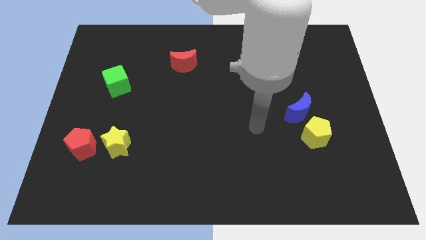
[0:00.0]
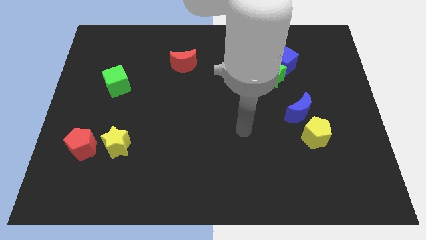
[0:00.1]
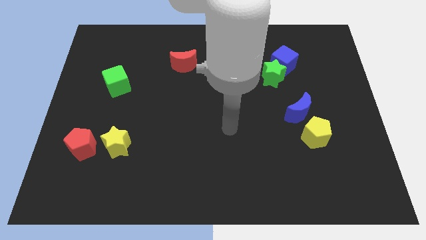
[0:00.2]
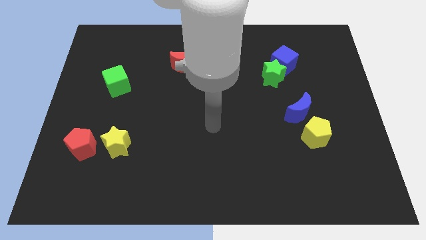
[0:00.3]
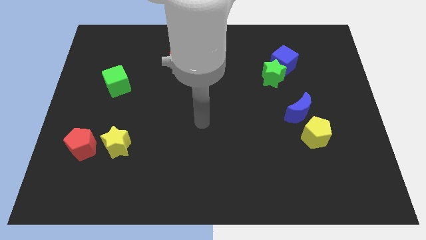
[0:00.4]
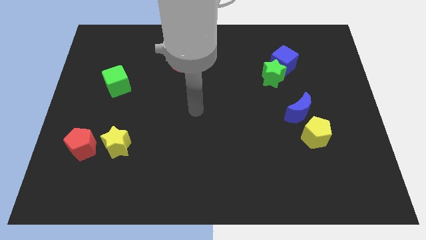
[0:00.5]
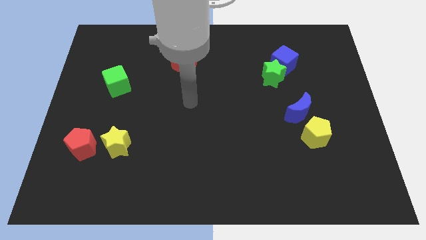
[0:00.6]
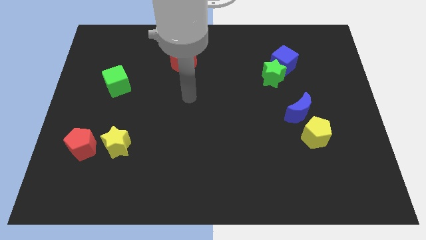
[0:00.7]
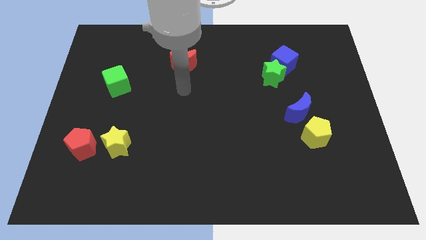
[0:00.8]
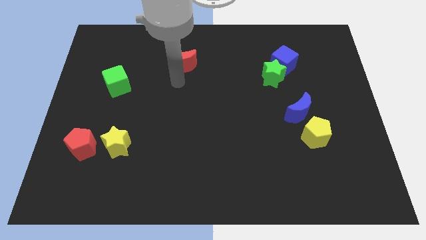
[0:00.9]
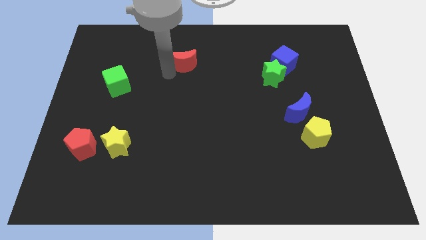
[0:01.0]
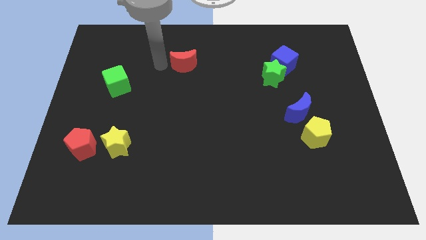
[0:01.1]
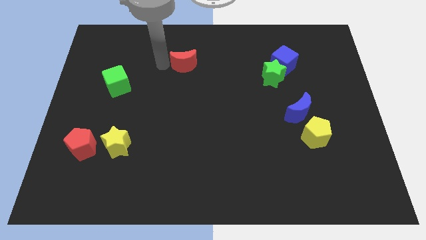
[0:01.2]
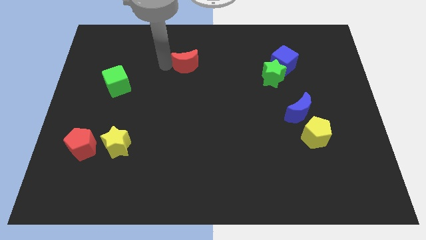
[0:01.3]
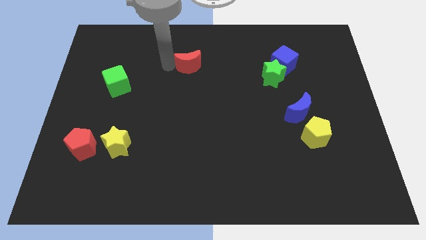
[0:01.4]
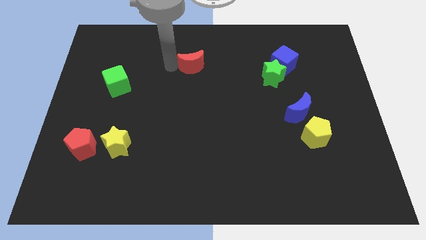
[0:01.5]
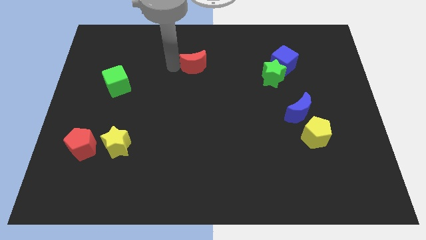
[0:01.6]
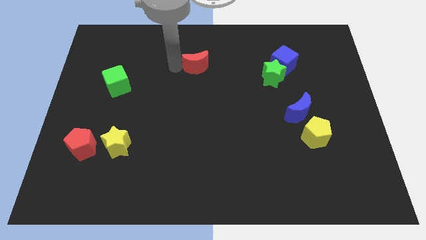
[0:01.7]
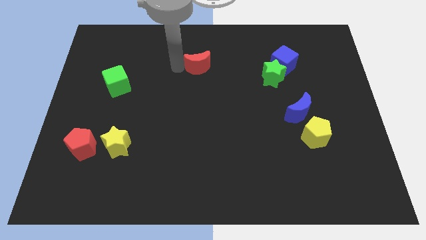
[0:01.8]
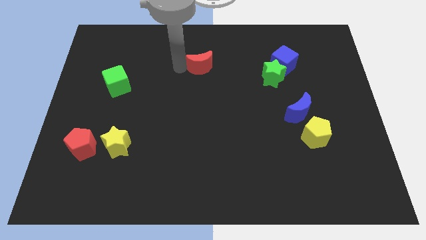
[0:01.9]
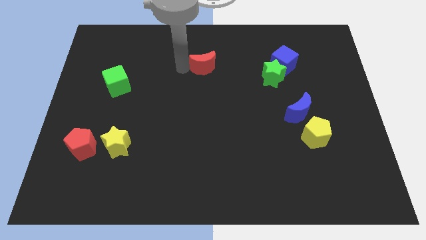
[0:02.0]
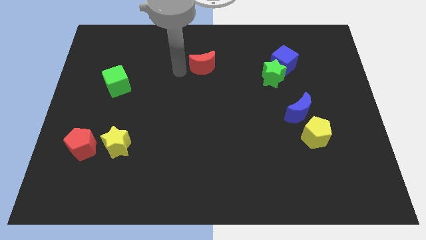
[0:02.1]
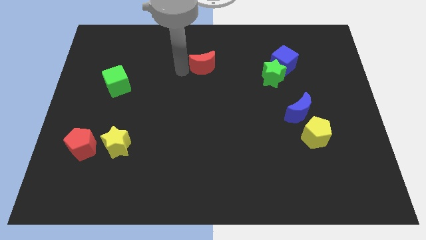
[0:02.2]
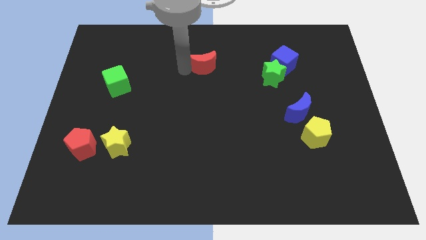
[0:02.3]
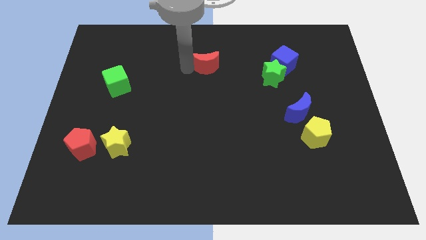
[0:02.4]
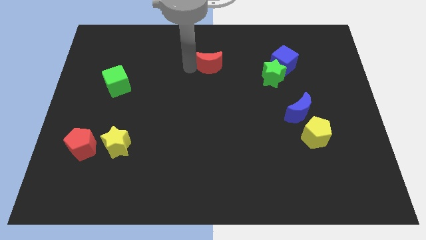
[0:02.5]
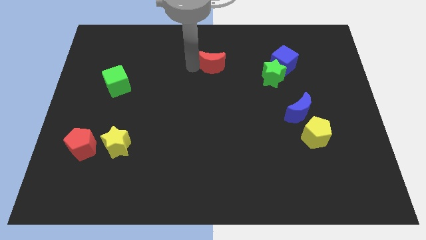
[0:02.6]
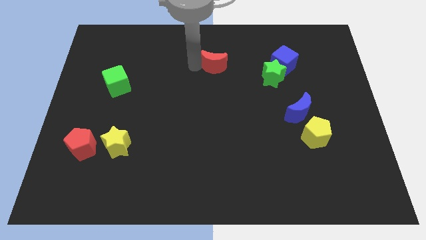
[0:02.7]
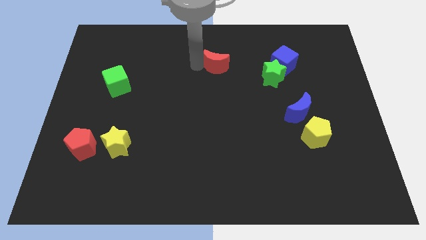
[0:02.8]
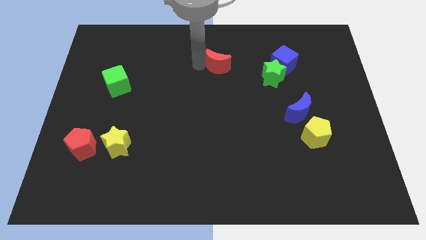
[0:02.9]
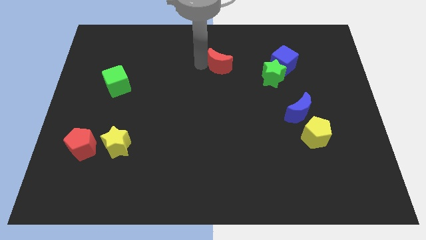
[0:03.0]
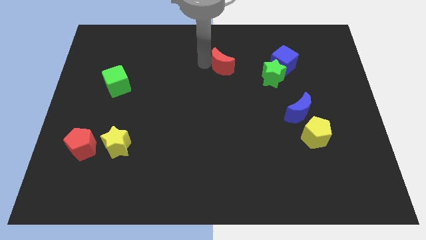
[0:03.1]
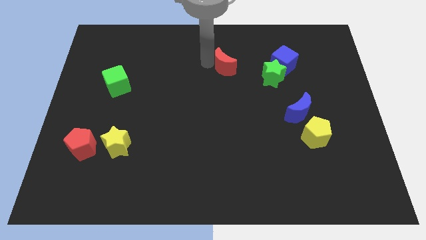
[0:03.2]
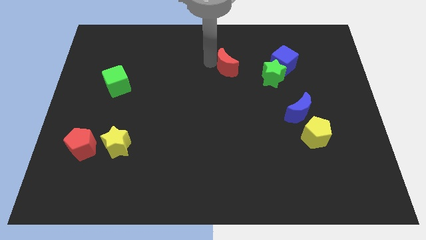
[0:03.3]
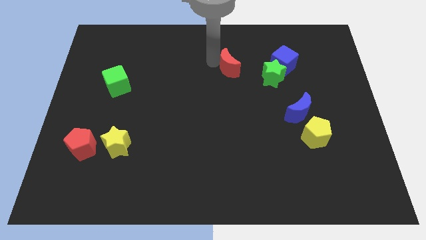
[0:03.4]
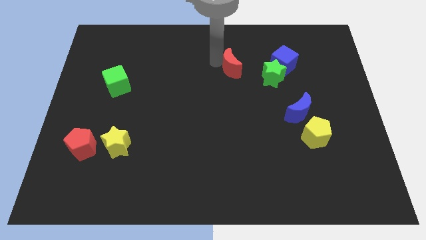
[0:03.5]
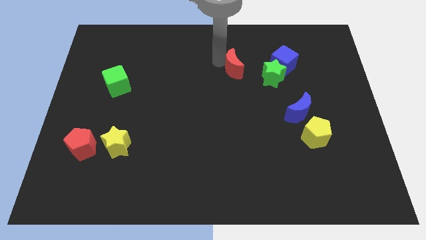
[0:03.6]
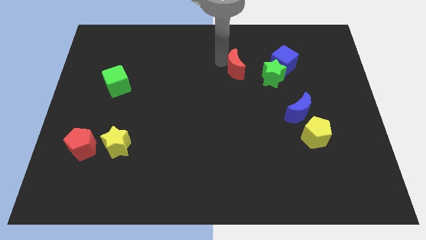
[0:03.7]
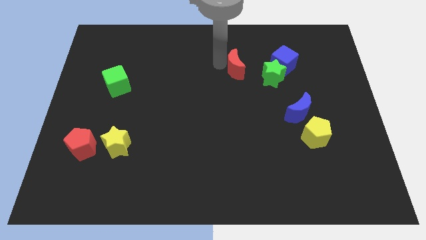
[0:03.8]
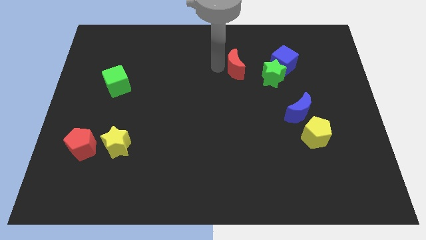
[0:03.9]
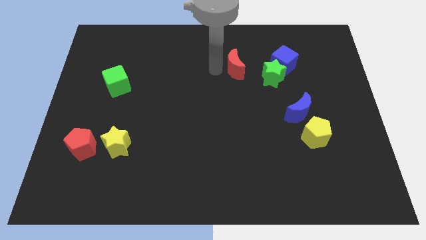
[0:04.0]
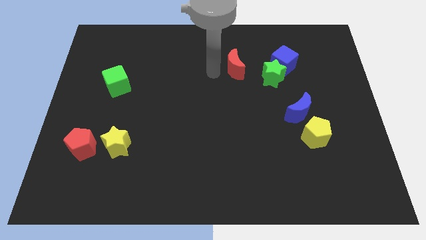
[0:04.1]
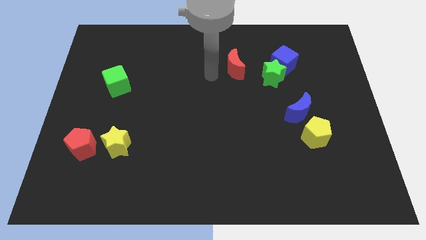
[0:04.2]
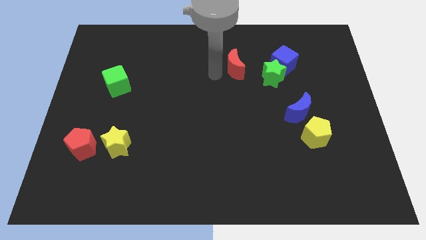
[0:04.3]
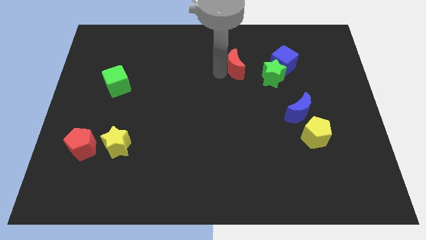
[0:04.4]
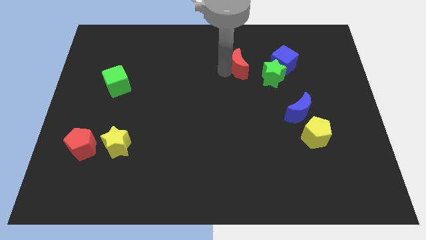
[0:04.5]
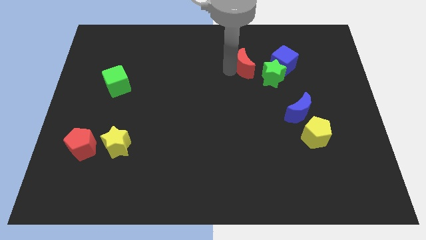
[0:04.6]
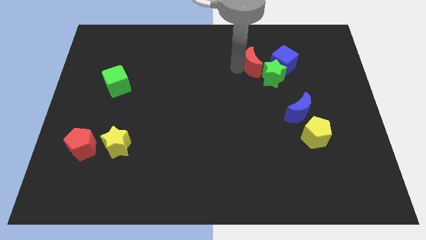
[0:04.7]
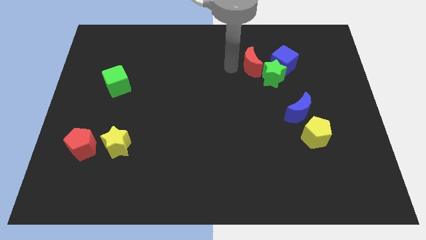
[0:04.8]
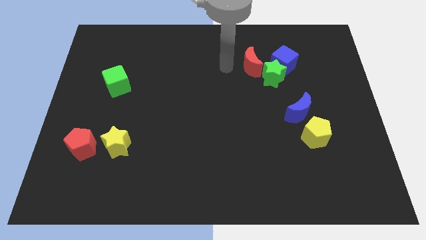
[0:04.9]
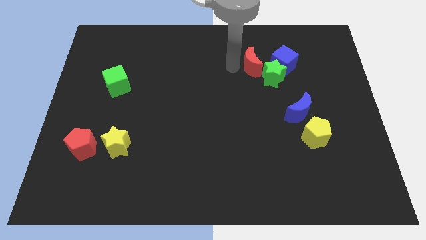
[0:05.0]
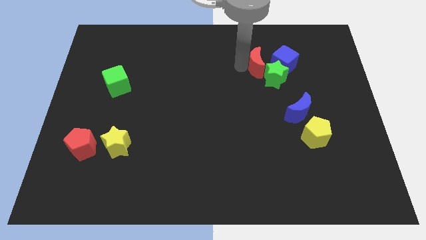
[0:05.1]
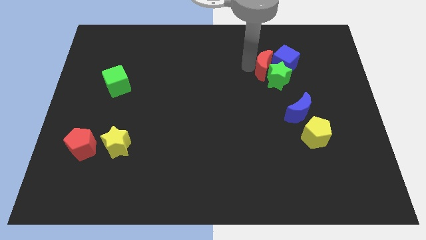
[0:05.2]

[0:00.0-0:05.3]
put the red moon towards the blue cube

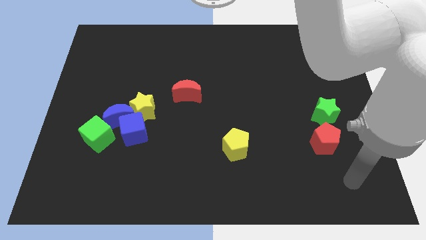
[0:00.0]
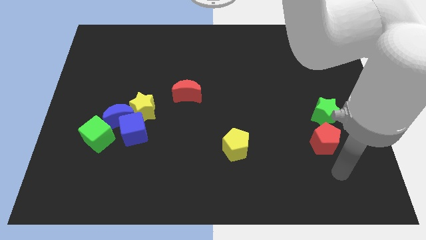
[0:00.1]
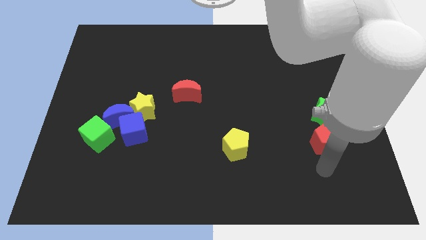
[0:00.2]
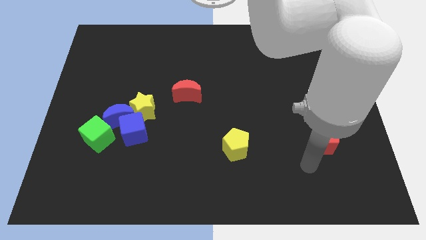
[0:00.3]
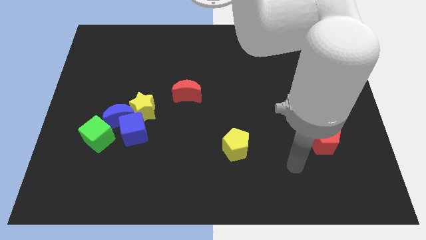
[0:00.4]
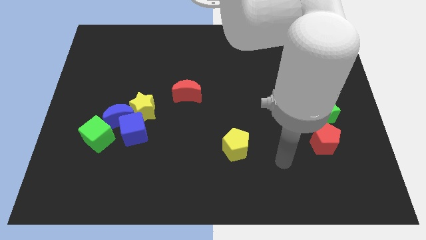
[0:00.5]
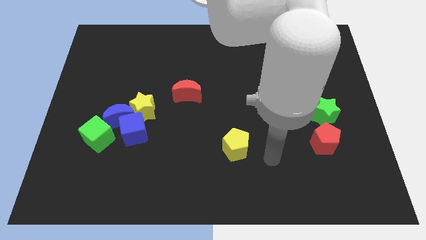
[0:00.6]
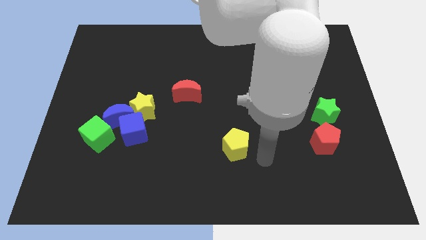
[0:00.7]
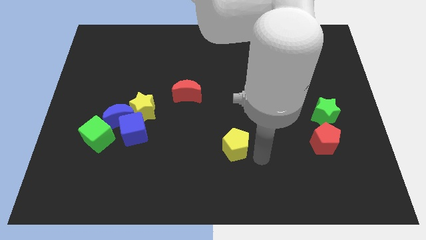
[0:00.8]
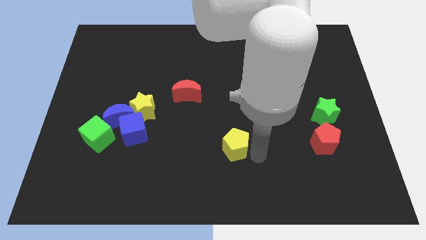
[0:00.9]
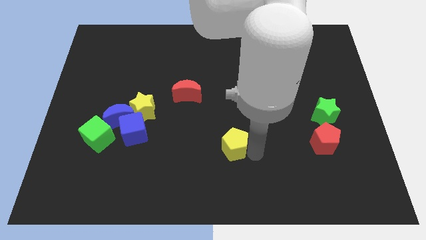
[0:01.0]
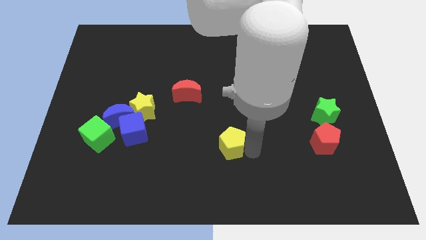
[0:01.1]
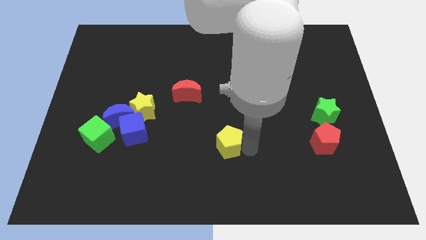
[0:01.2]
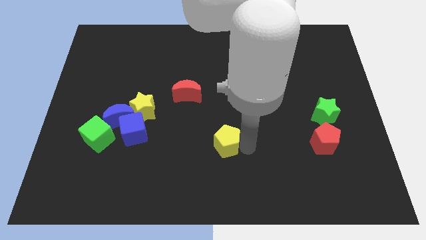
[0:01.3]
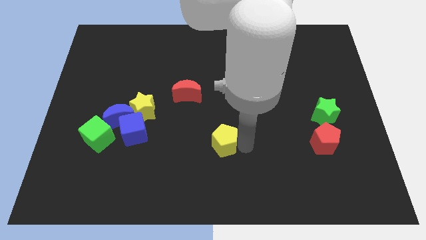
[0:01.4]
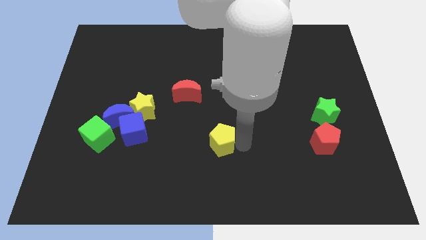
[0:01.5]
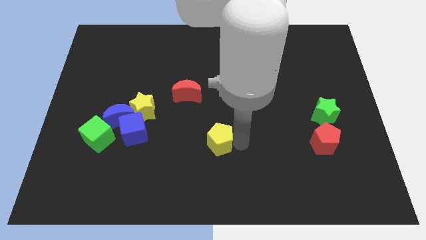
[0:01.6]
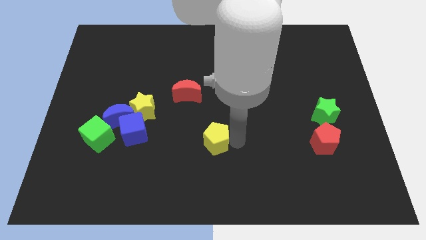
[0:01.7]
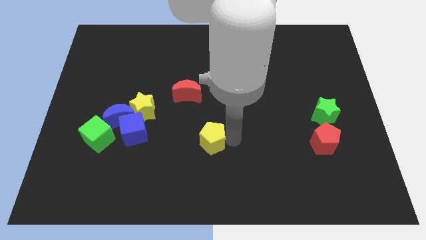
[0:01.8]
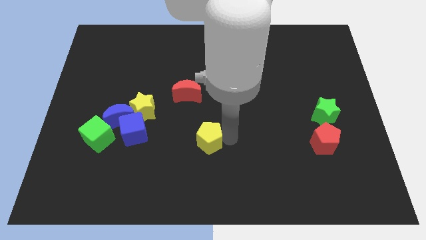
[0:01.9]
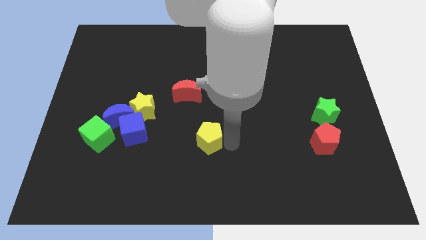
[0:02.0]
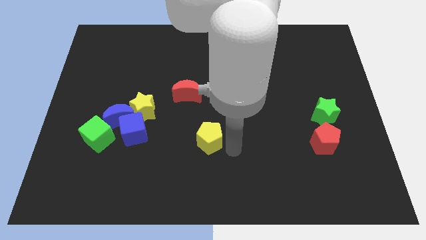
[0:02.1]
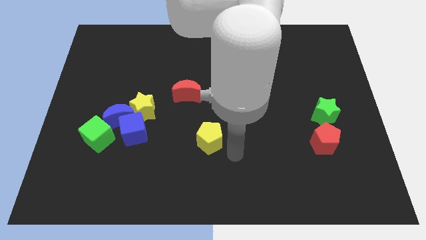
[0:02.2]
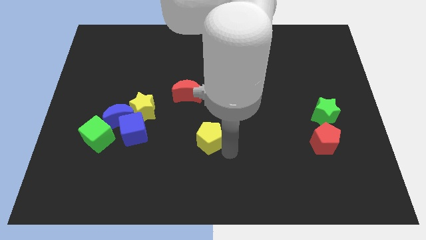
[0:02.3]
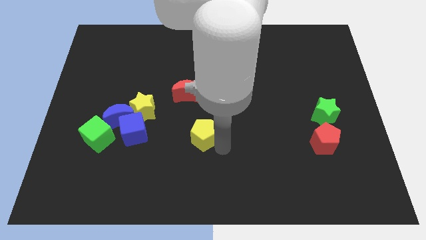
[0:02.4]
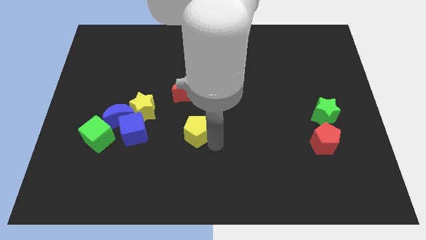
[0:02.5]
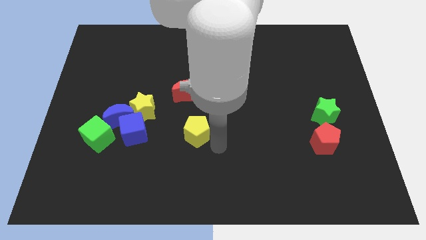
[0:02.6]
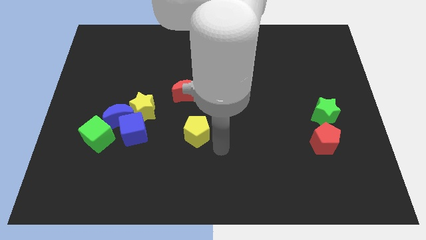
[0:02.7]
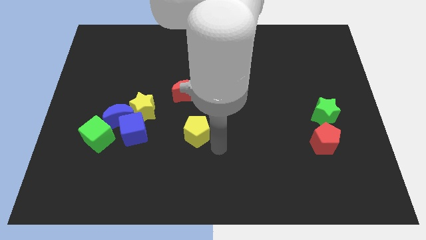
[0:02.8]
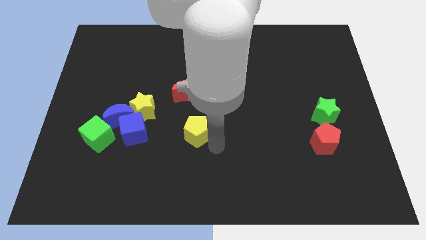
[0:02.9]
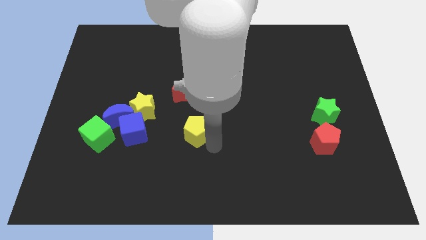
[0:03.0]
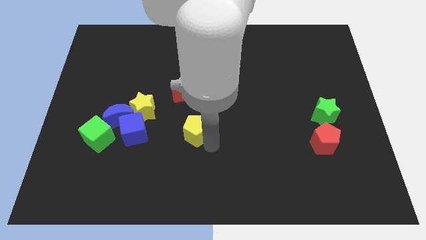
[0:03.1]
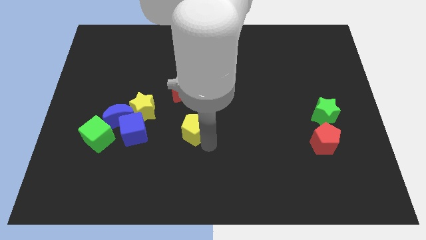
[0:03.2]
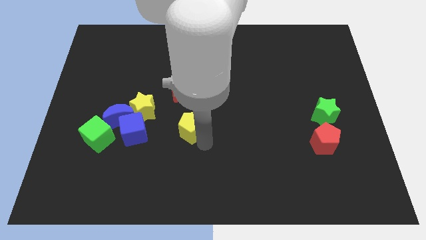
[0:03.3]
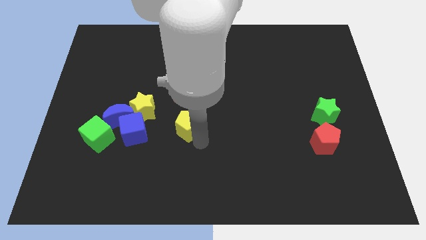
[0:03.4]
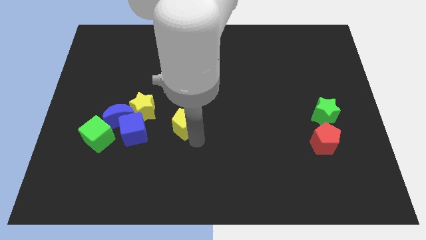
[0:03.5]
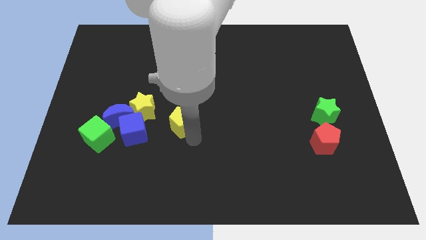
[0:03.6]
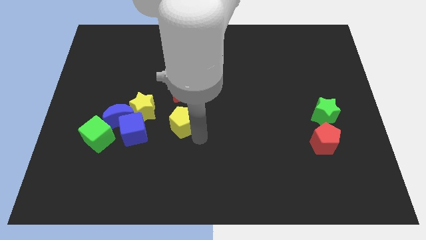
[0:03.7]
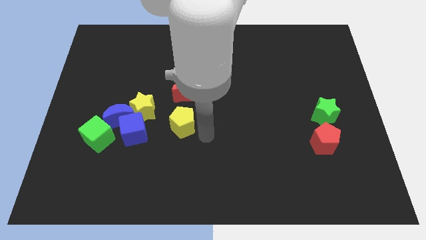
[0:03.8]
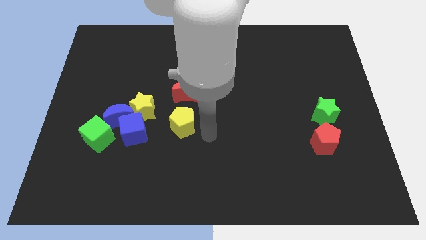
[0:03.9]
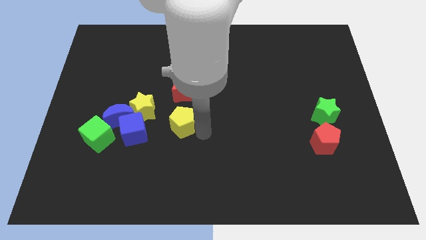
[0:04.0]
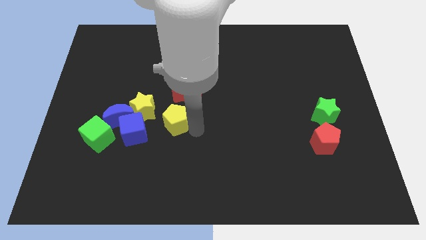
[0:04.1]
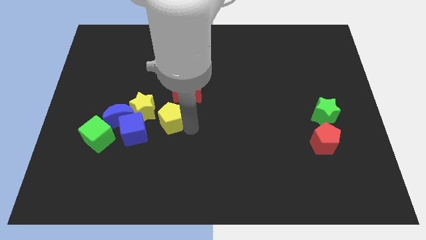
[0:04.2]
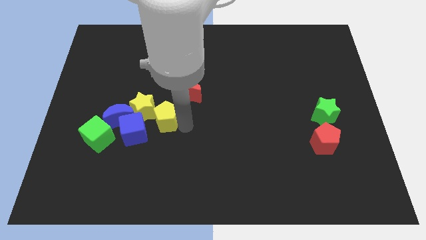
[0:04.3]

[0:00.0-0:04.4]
slide the yellow pentagon close to the yellow star
